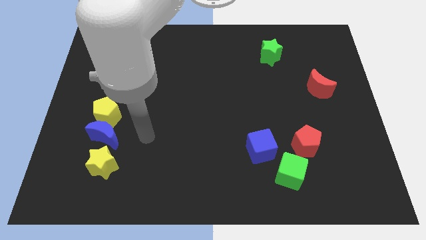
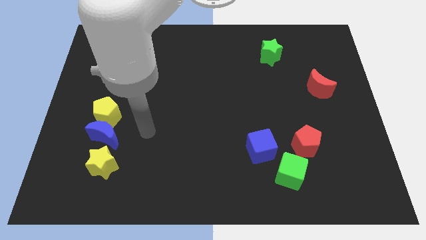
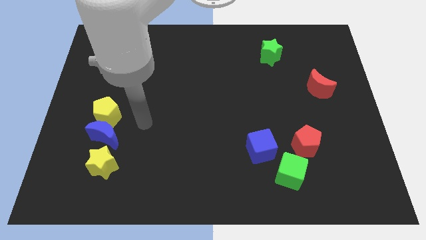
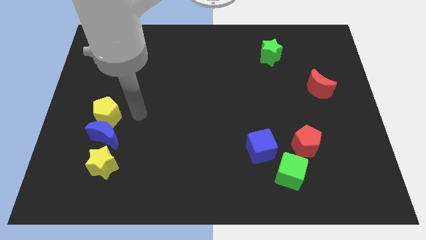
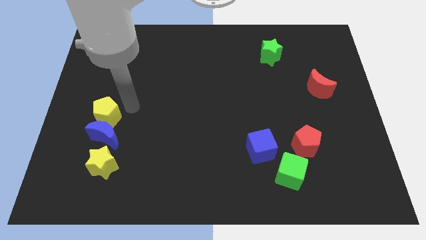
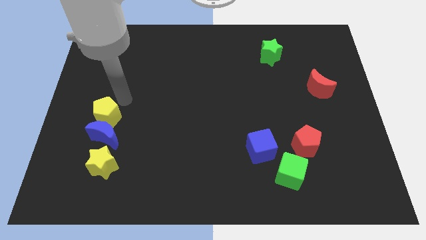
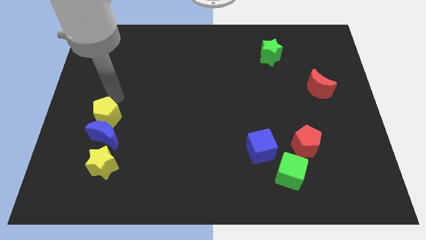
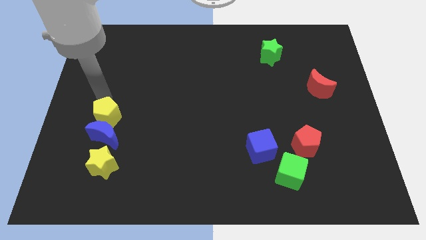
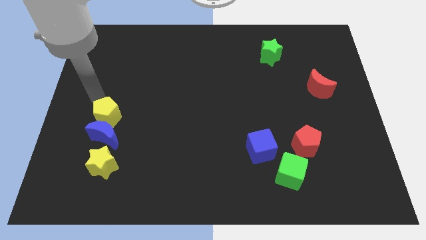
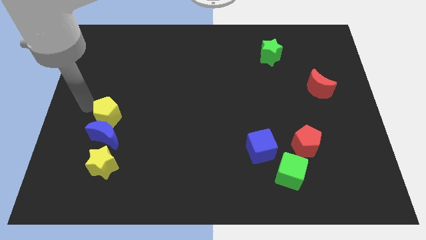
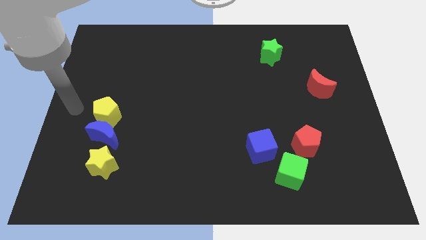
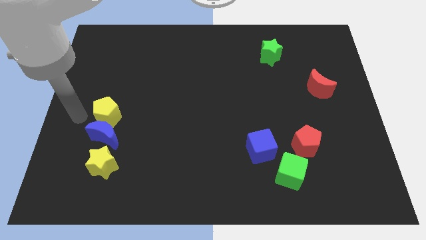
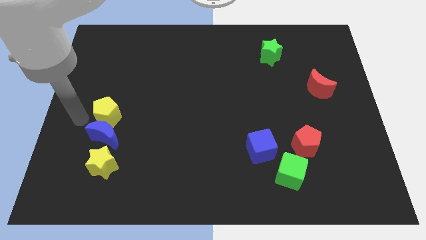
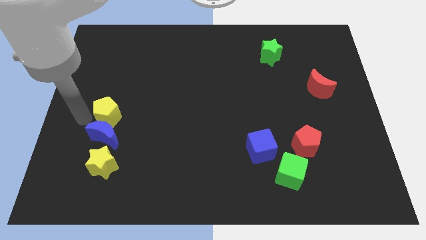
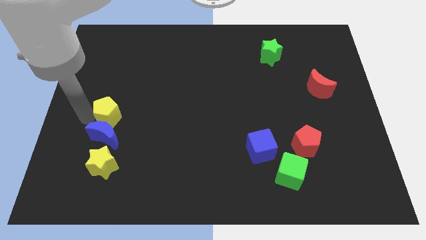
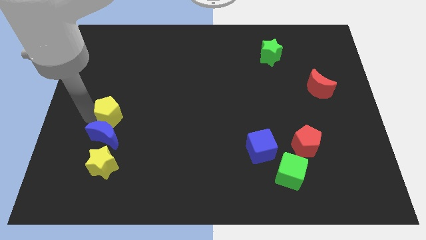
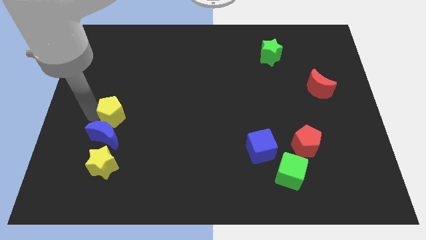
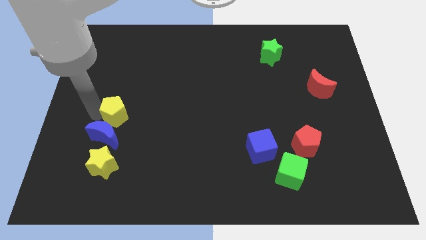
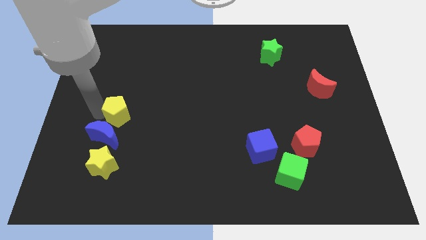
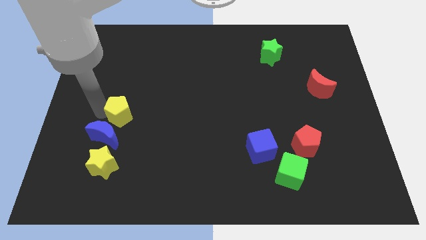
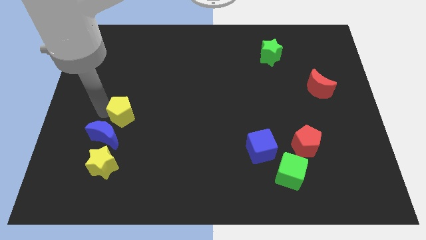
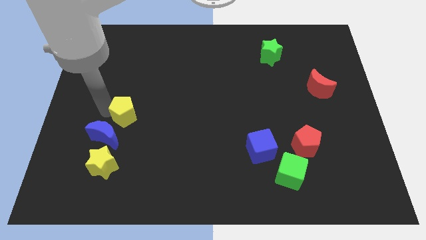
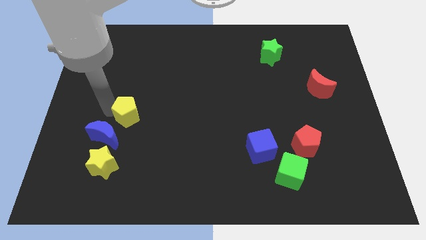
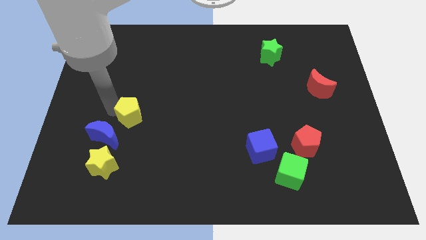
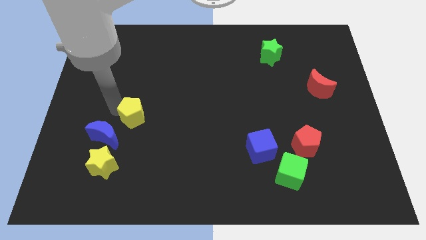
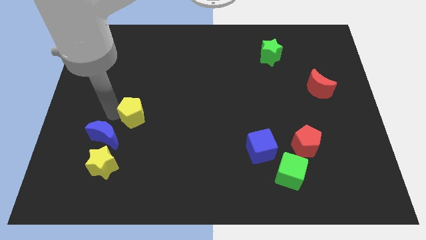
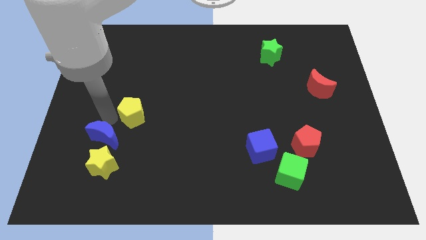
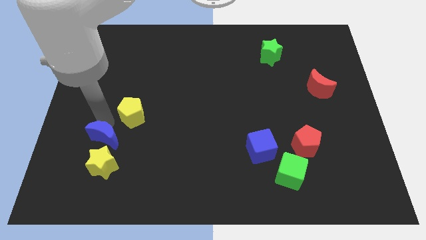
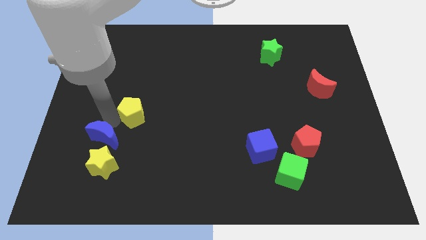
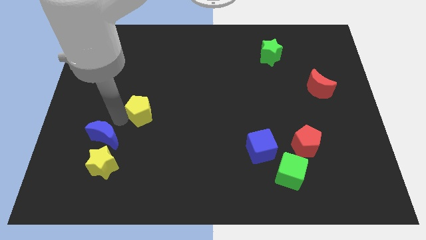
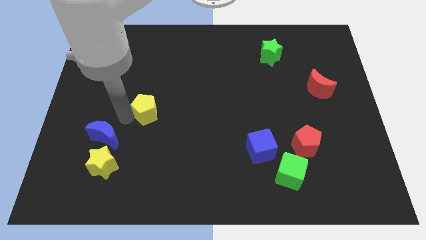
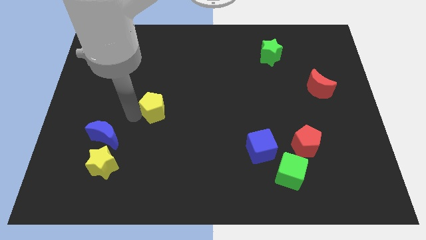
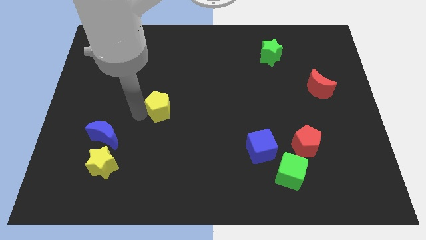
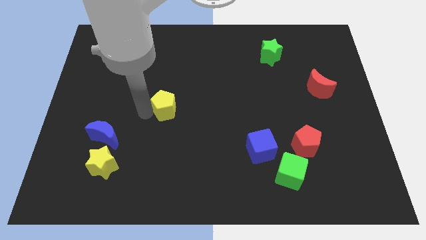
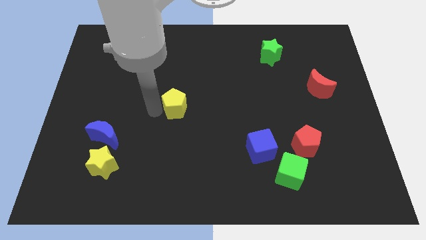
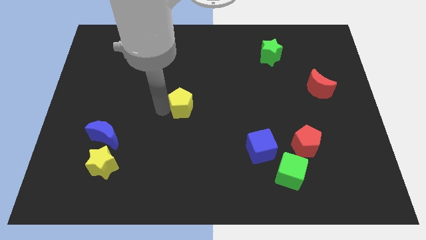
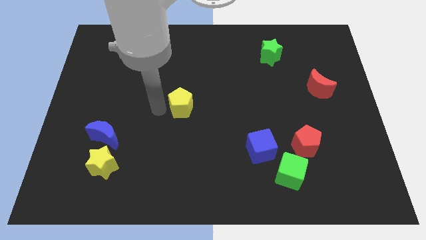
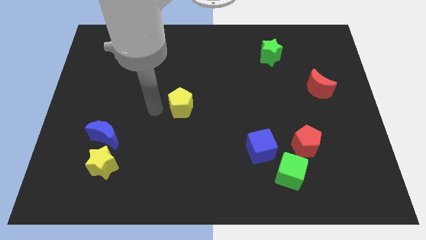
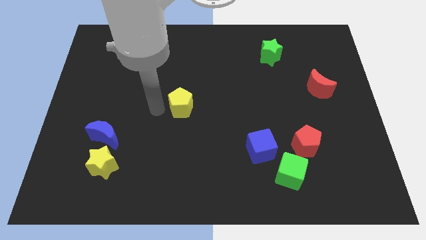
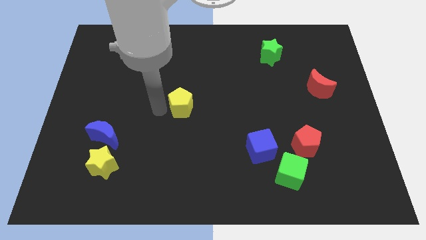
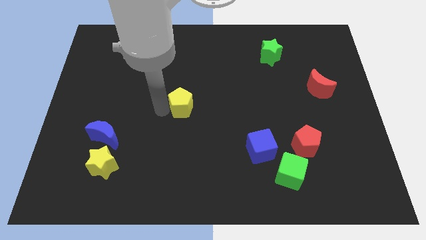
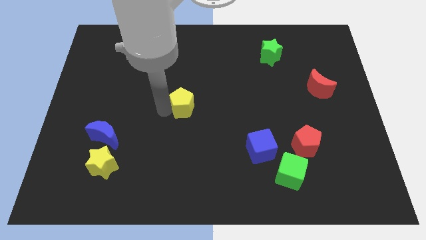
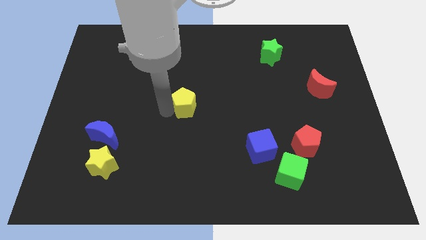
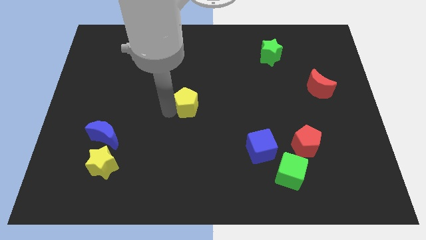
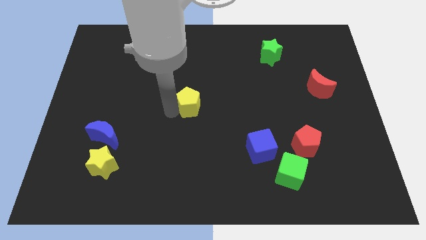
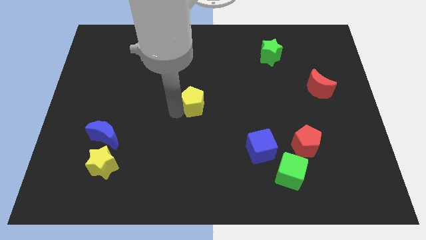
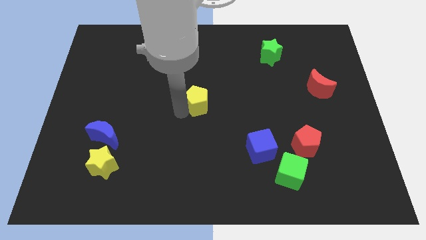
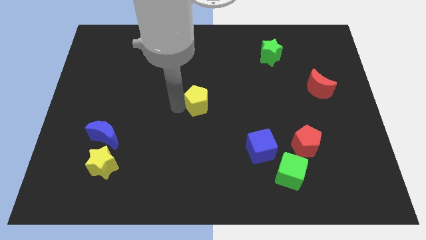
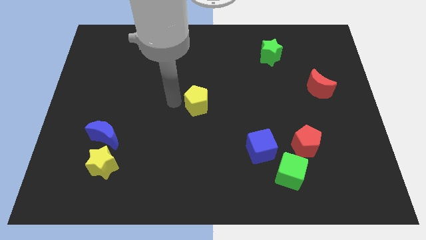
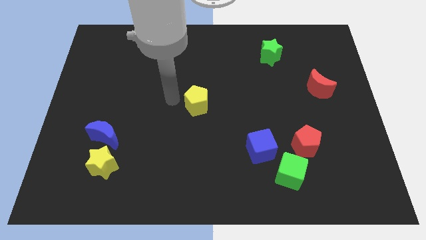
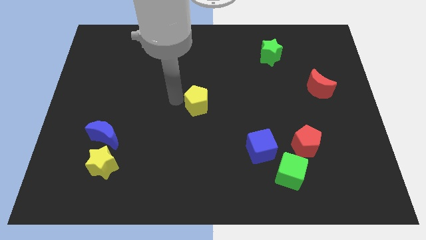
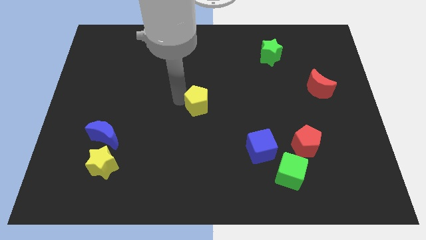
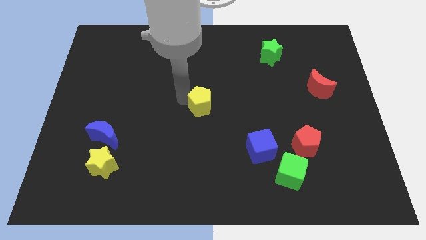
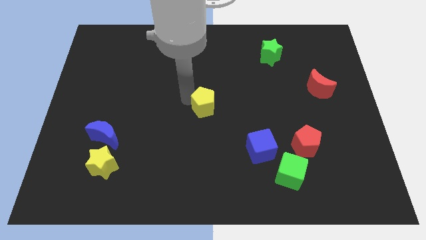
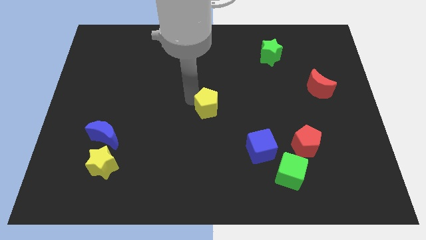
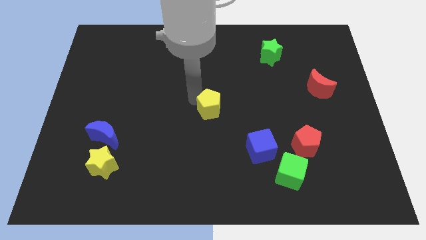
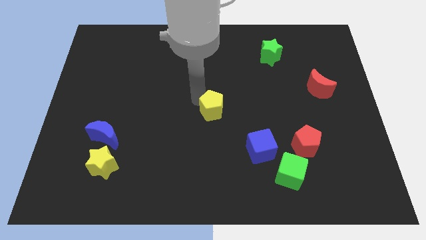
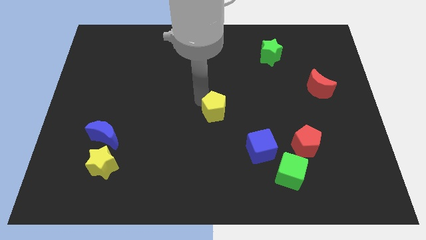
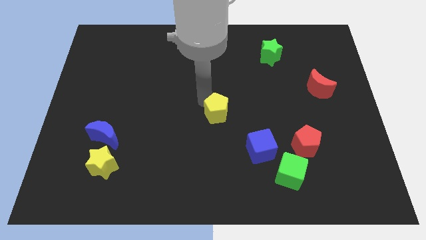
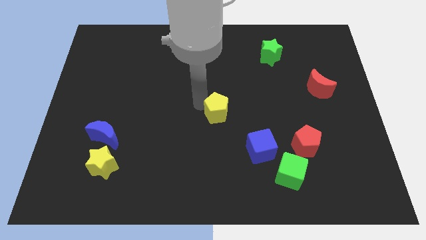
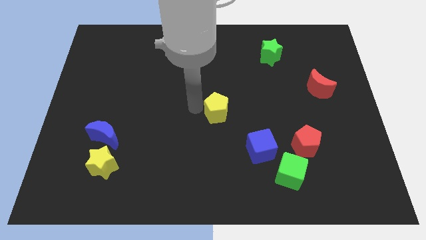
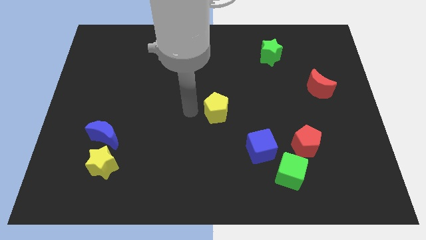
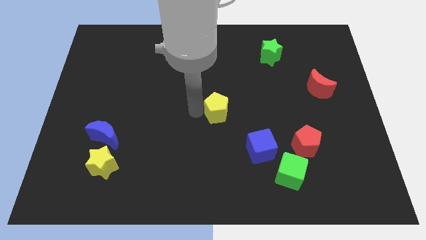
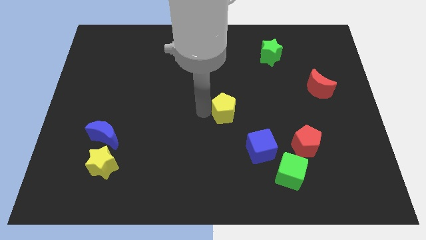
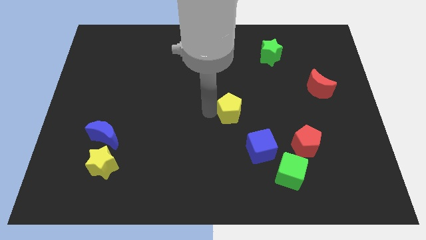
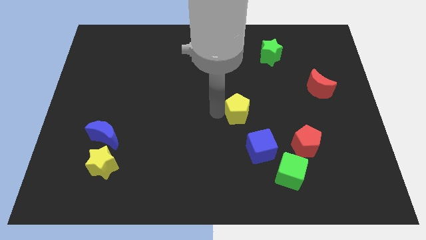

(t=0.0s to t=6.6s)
push the yellow pentagon to the top side of the blue cube
